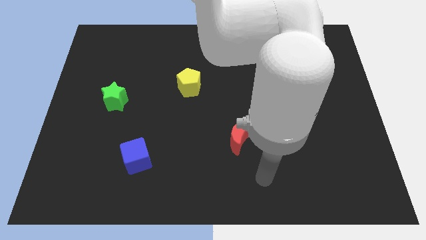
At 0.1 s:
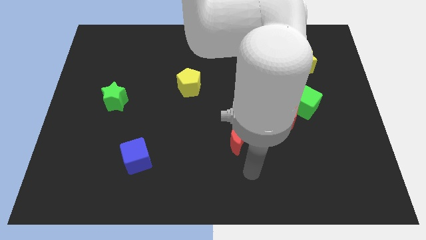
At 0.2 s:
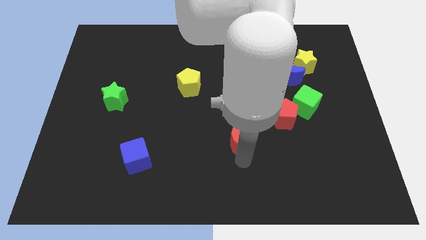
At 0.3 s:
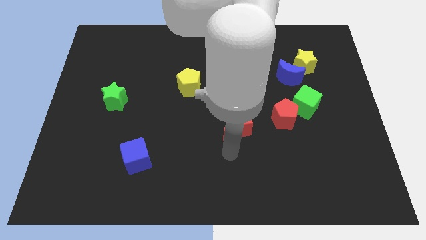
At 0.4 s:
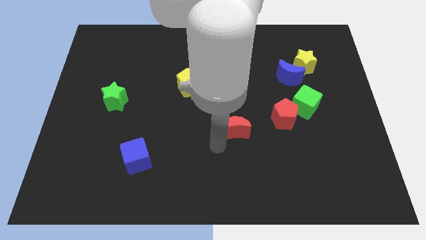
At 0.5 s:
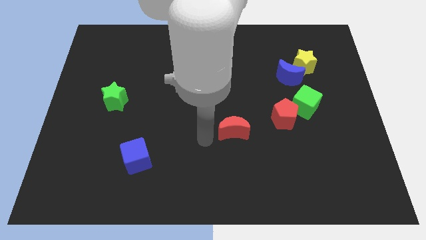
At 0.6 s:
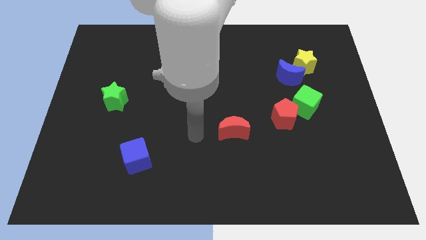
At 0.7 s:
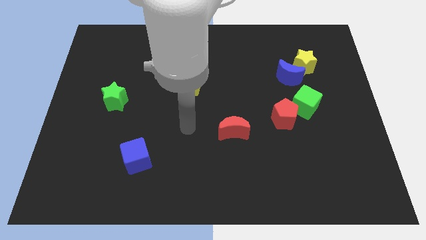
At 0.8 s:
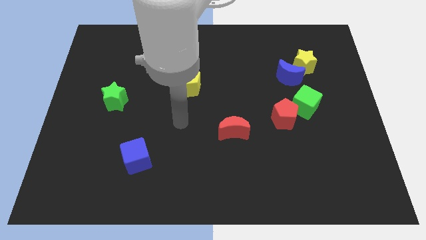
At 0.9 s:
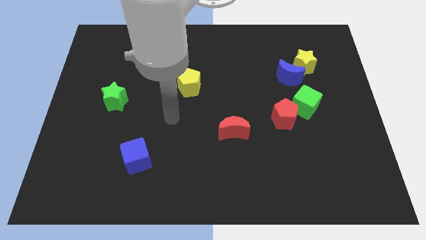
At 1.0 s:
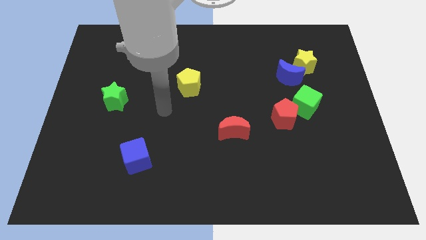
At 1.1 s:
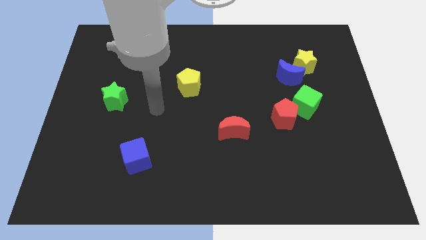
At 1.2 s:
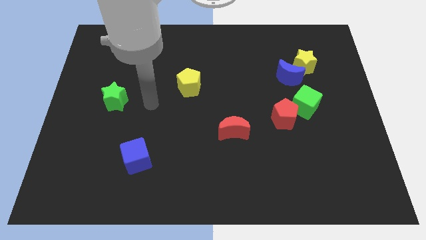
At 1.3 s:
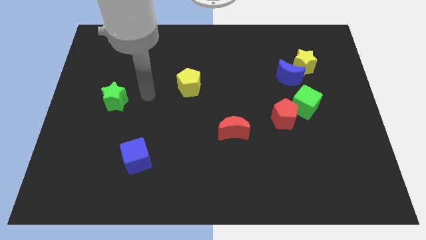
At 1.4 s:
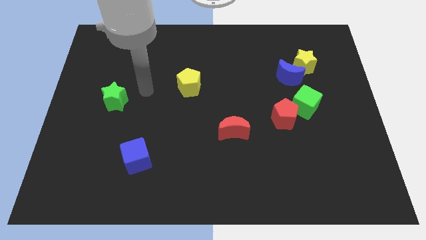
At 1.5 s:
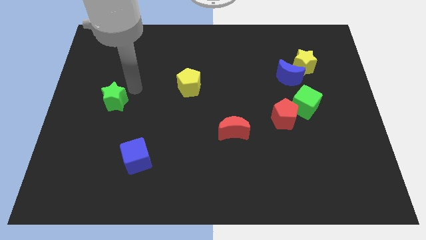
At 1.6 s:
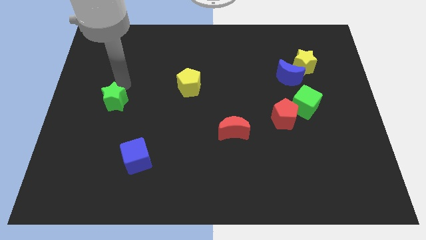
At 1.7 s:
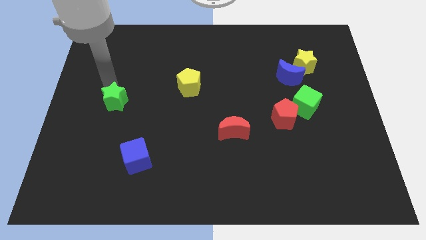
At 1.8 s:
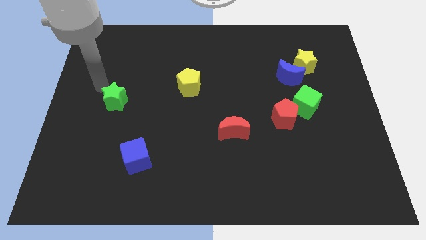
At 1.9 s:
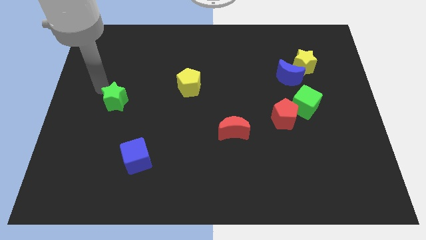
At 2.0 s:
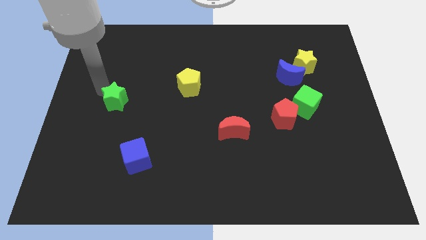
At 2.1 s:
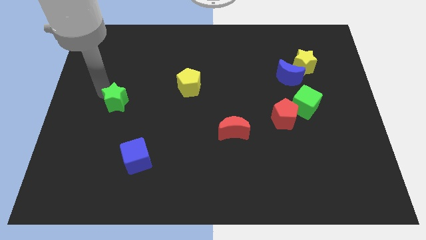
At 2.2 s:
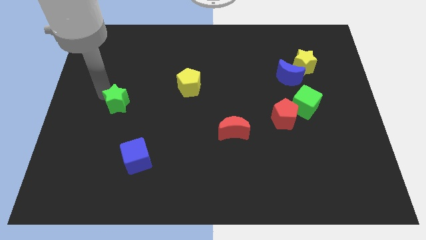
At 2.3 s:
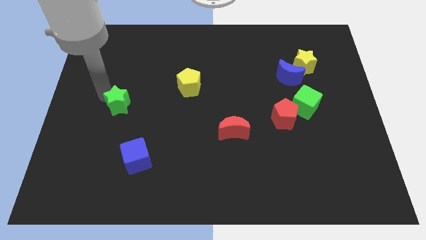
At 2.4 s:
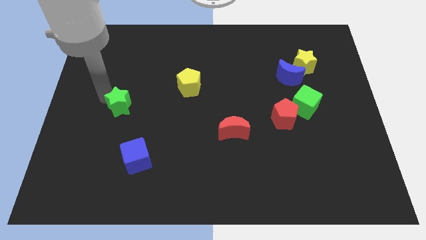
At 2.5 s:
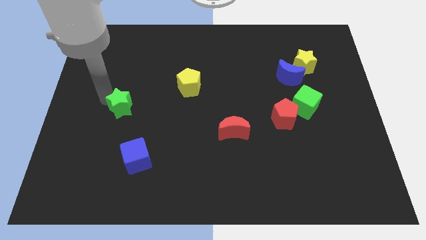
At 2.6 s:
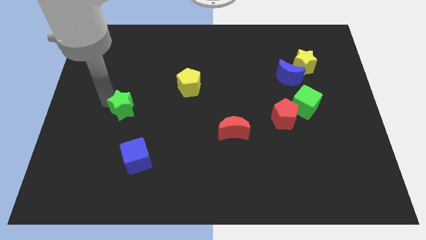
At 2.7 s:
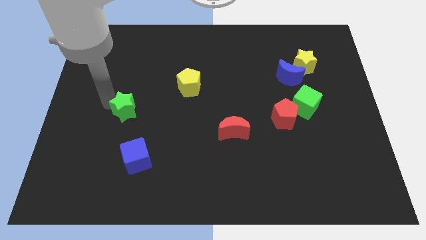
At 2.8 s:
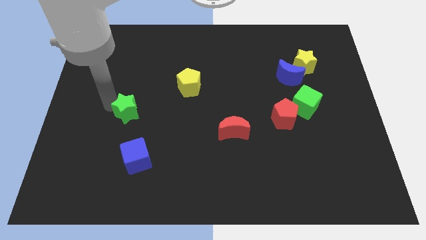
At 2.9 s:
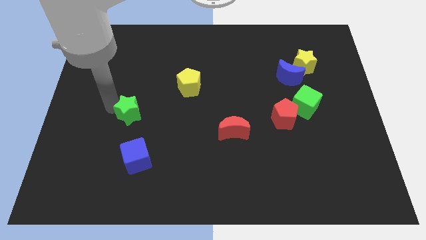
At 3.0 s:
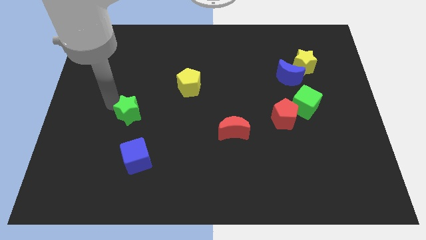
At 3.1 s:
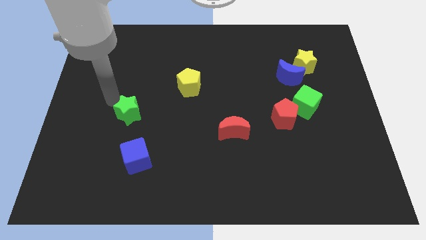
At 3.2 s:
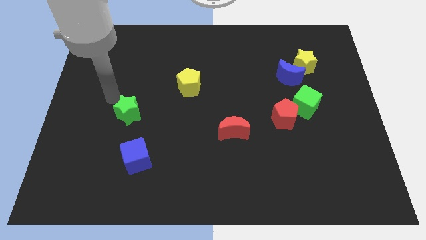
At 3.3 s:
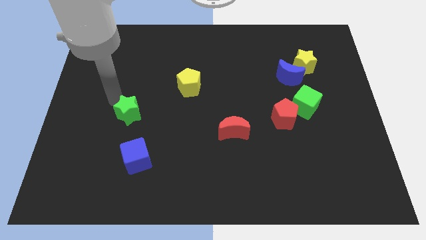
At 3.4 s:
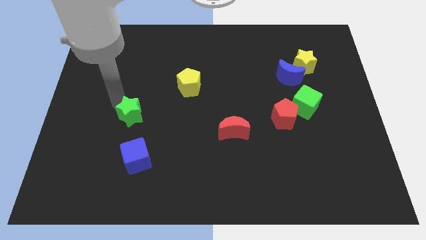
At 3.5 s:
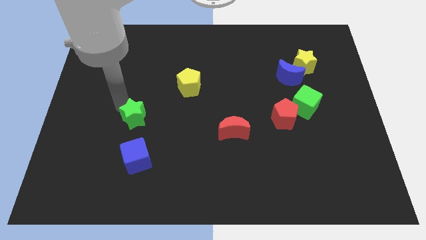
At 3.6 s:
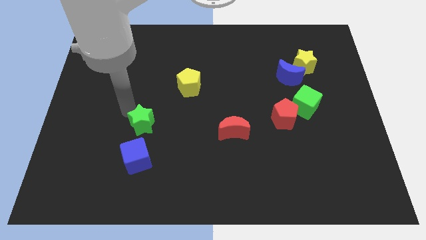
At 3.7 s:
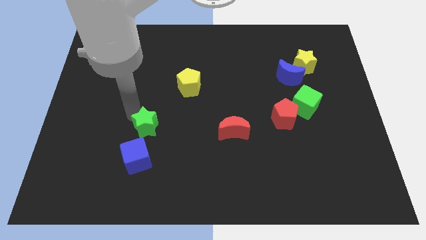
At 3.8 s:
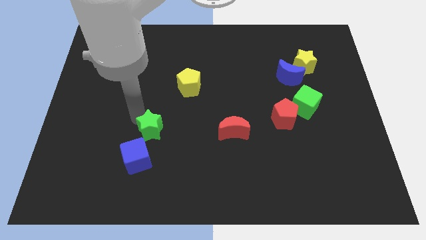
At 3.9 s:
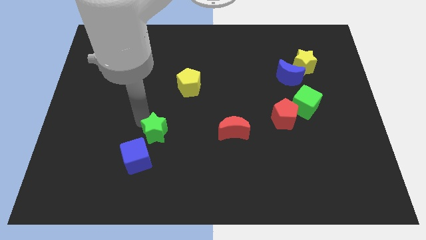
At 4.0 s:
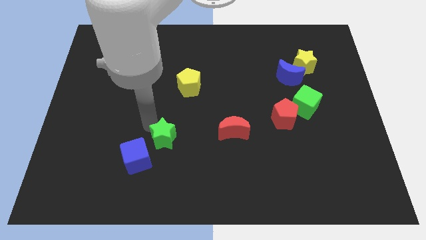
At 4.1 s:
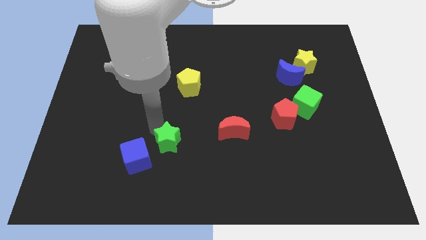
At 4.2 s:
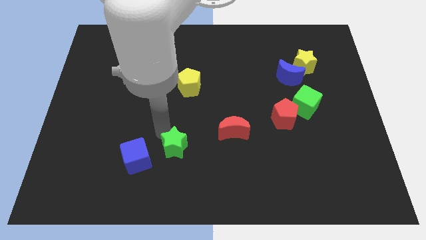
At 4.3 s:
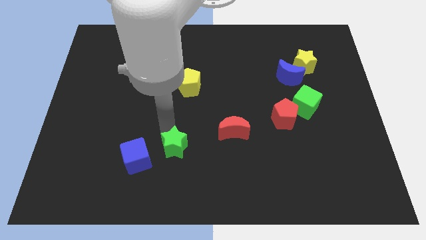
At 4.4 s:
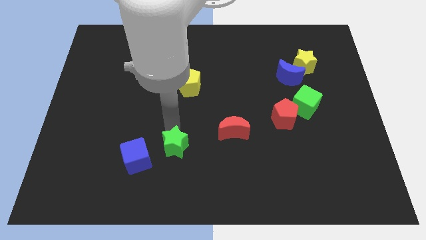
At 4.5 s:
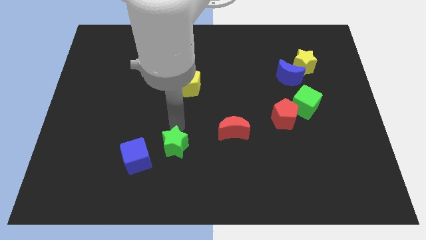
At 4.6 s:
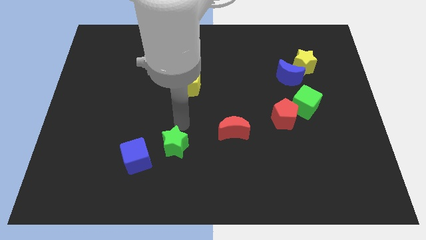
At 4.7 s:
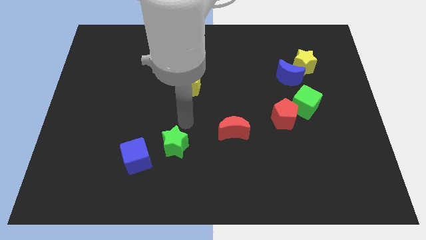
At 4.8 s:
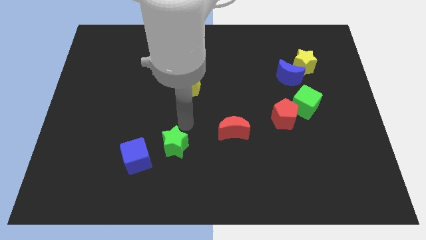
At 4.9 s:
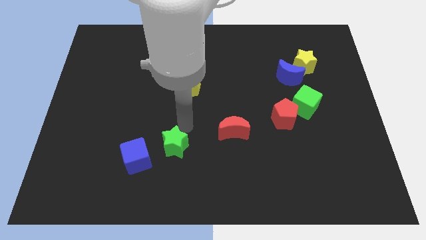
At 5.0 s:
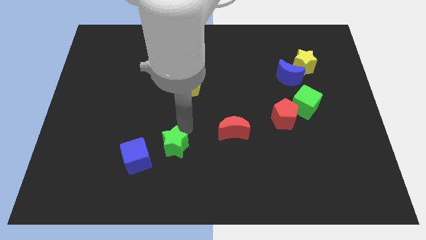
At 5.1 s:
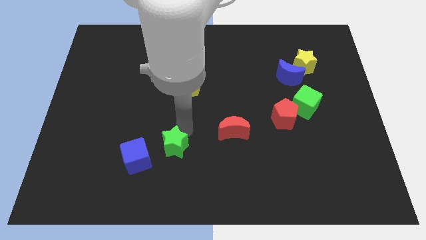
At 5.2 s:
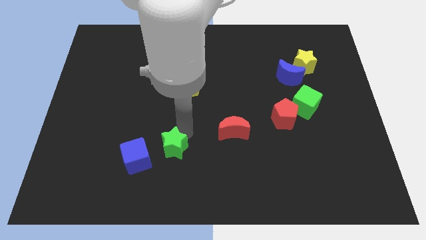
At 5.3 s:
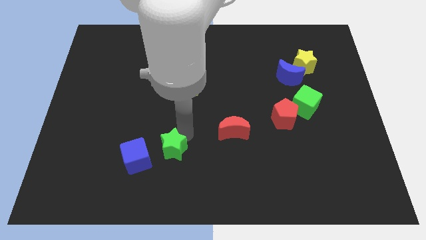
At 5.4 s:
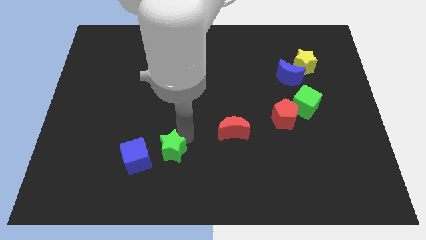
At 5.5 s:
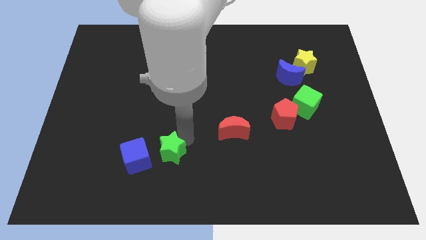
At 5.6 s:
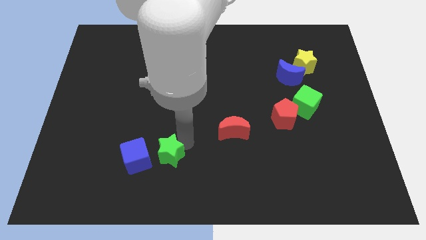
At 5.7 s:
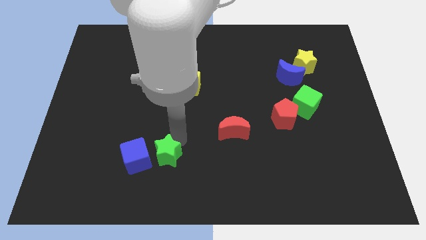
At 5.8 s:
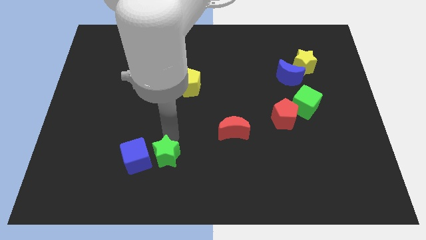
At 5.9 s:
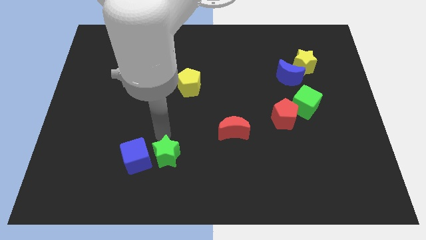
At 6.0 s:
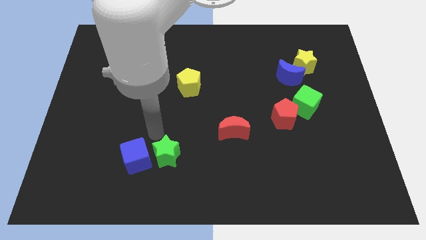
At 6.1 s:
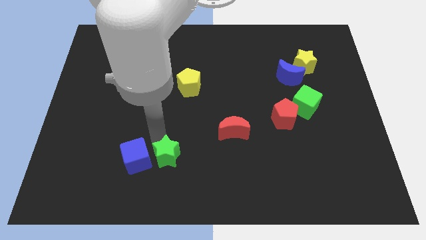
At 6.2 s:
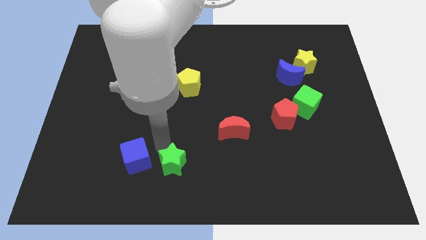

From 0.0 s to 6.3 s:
move the green star to the bottom side
